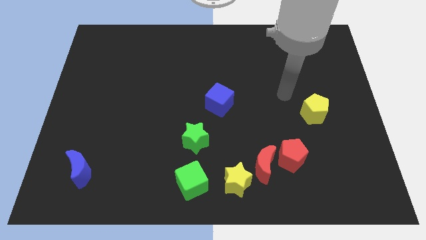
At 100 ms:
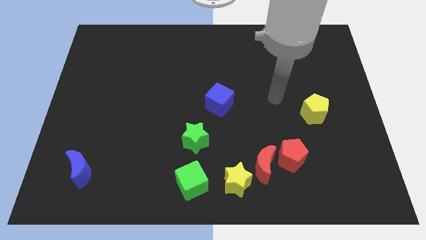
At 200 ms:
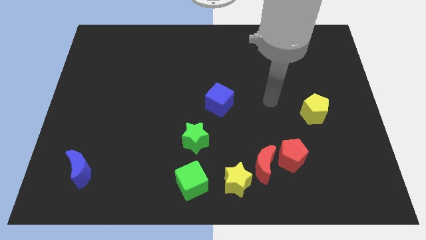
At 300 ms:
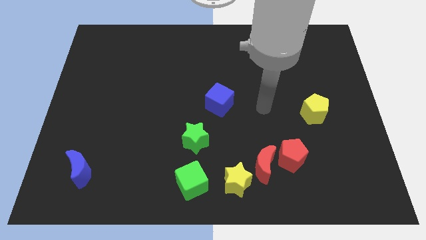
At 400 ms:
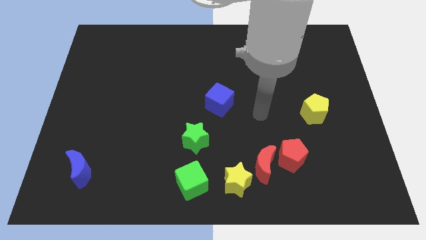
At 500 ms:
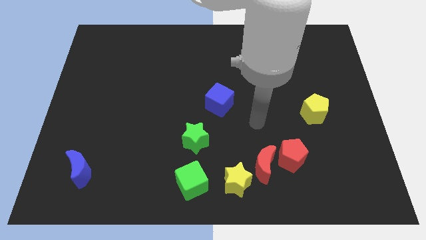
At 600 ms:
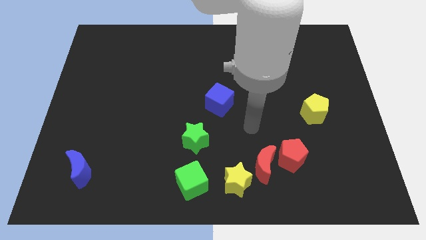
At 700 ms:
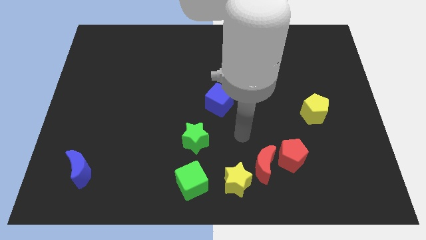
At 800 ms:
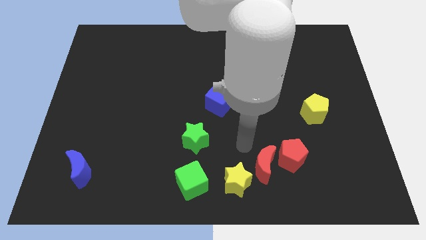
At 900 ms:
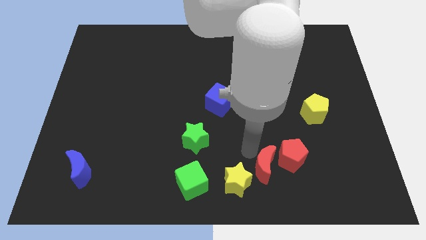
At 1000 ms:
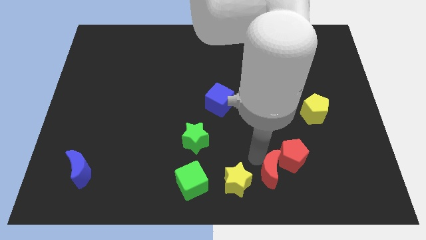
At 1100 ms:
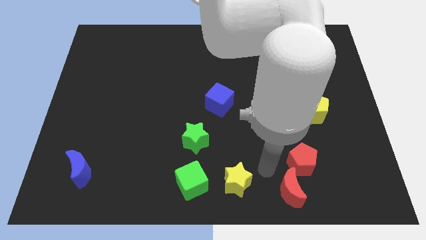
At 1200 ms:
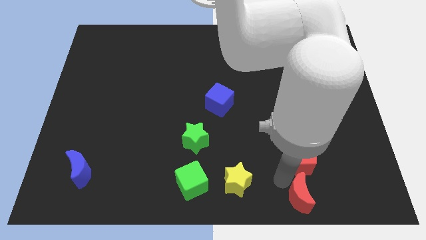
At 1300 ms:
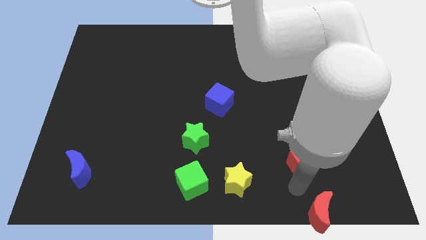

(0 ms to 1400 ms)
pull the red pentagon apart from the red moon

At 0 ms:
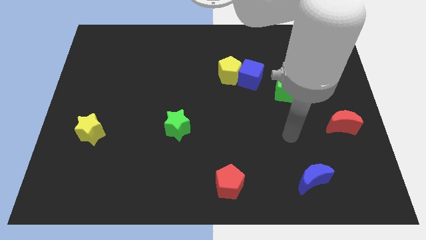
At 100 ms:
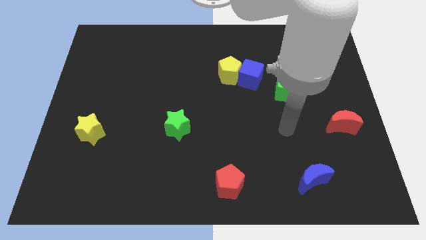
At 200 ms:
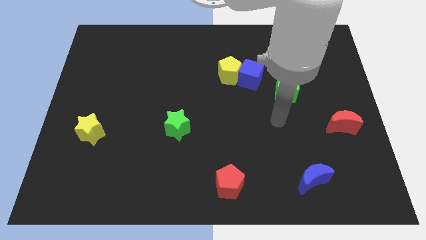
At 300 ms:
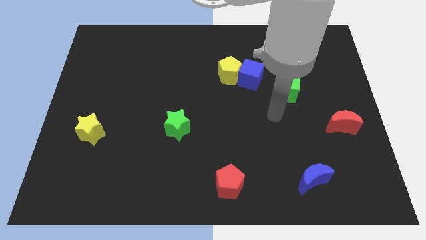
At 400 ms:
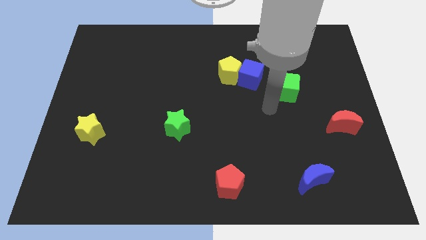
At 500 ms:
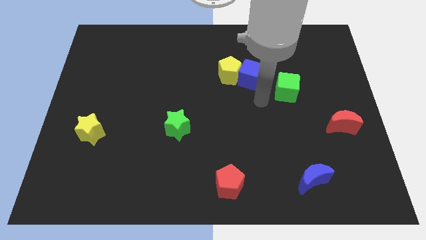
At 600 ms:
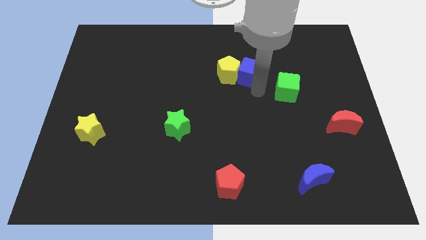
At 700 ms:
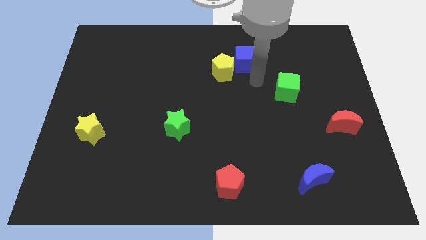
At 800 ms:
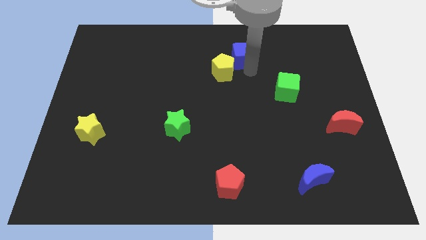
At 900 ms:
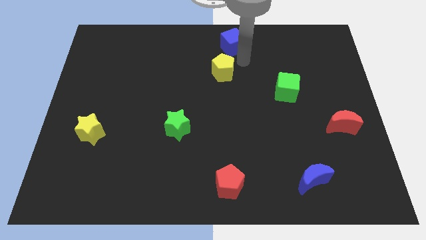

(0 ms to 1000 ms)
move the yellow pentagon away from the blue cube

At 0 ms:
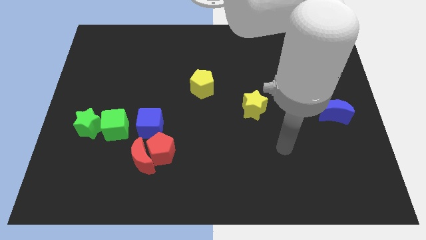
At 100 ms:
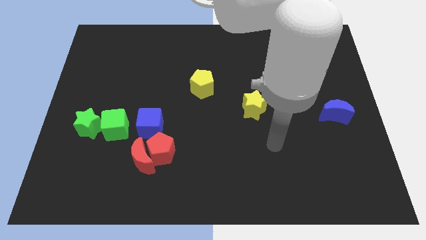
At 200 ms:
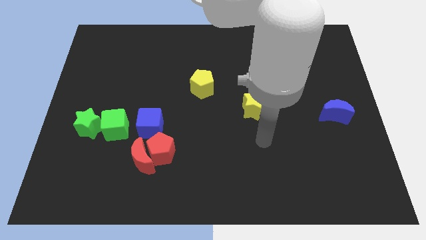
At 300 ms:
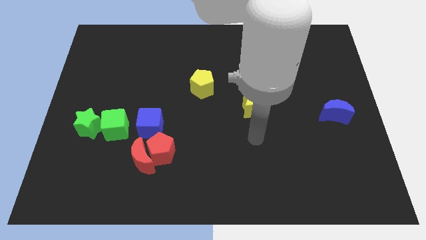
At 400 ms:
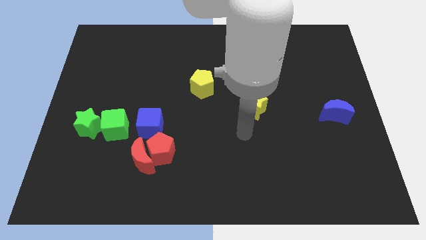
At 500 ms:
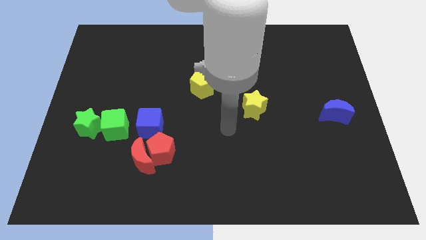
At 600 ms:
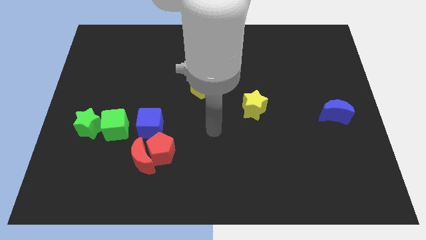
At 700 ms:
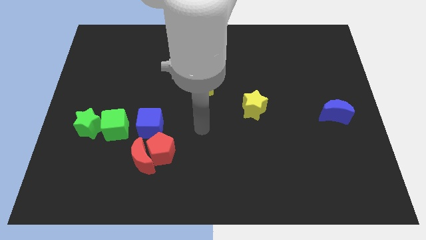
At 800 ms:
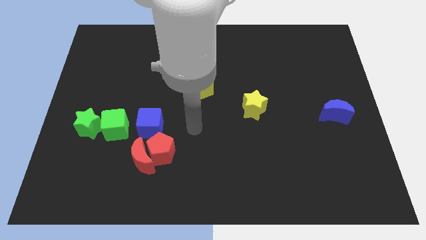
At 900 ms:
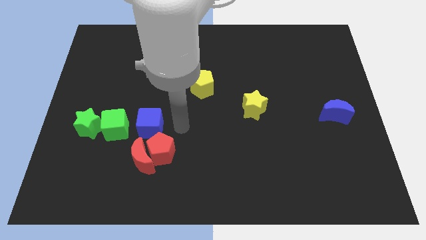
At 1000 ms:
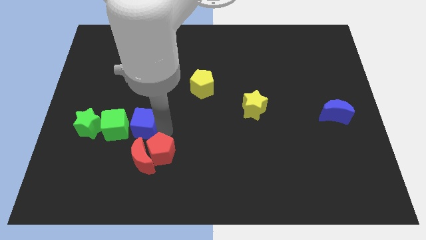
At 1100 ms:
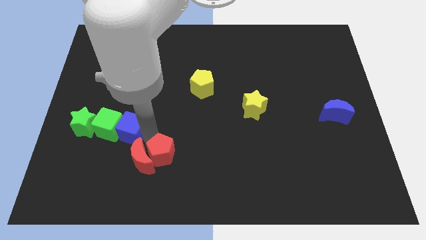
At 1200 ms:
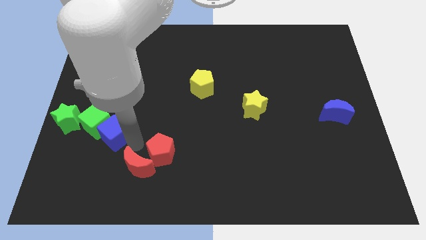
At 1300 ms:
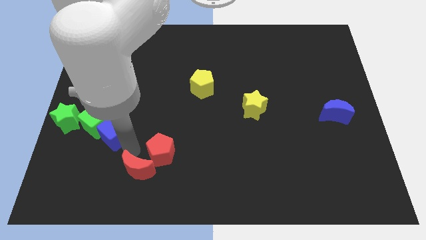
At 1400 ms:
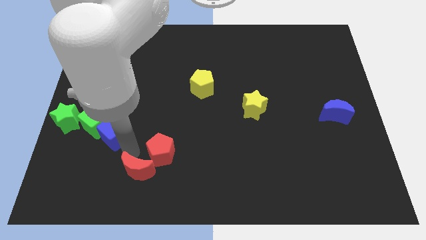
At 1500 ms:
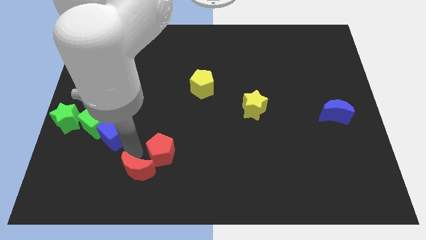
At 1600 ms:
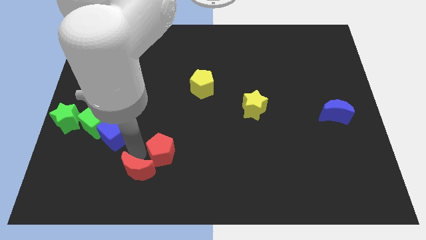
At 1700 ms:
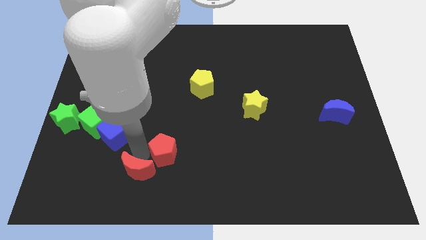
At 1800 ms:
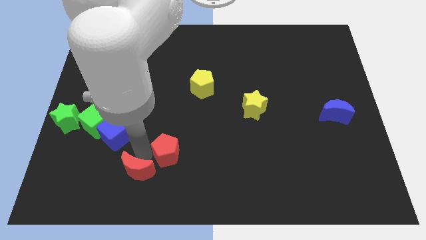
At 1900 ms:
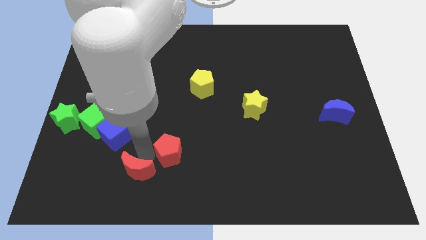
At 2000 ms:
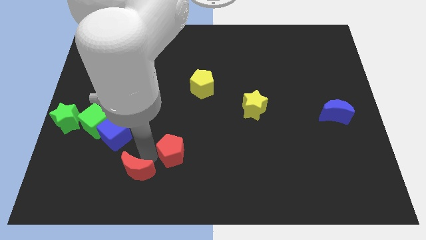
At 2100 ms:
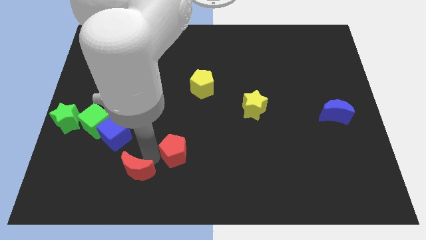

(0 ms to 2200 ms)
move the red pentagon away from the red moon and blue cube

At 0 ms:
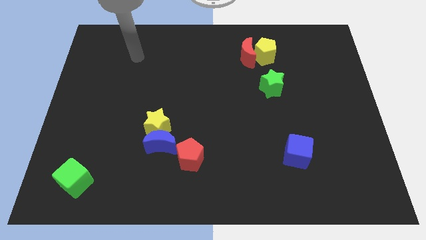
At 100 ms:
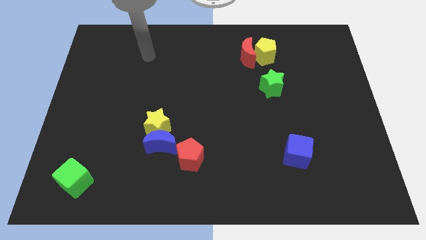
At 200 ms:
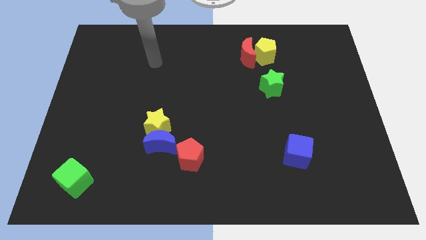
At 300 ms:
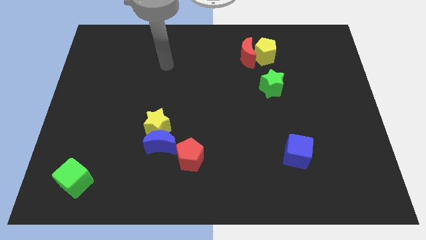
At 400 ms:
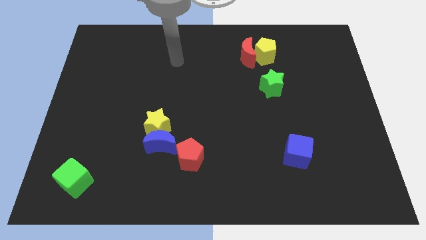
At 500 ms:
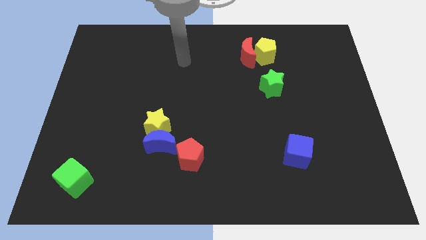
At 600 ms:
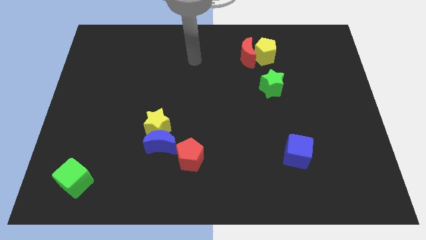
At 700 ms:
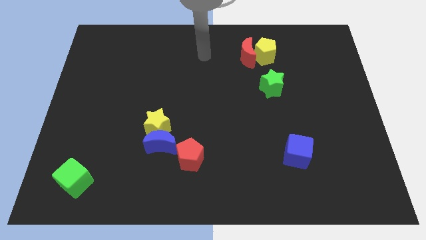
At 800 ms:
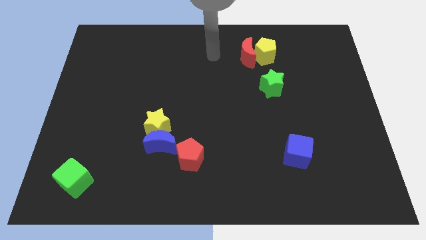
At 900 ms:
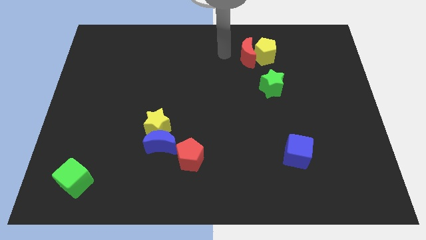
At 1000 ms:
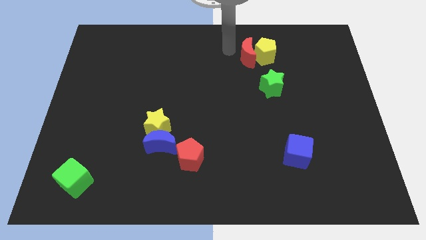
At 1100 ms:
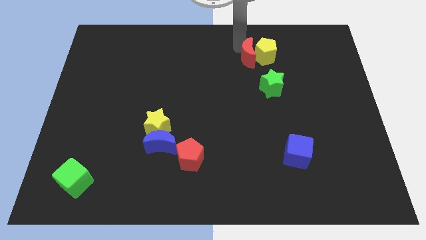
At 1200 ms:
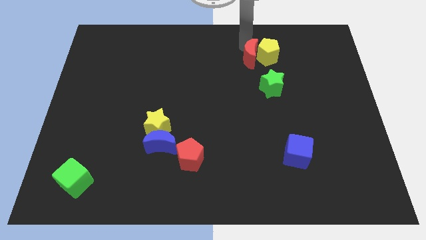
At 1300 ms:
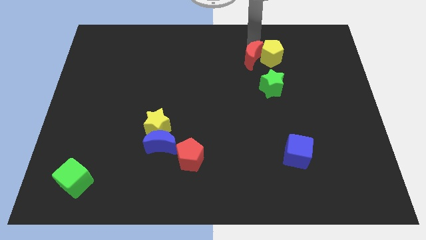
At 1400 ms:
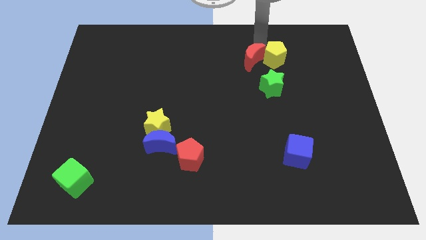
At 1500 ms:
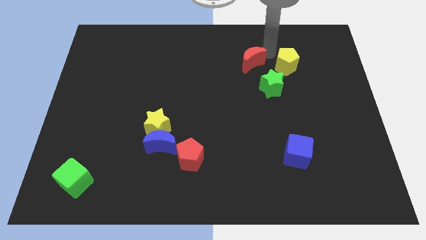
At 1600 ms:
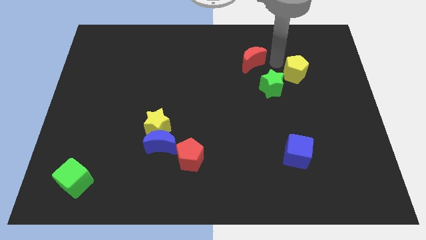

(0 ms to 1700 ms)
pull the red moon apart from the yellow pentagon

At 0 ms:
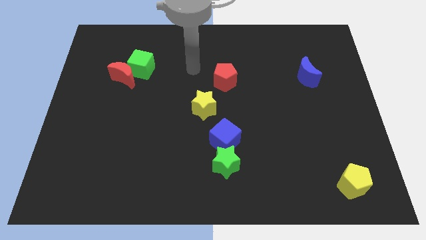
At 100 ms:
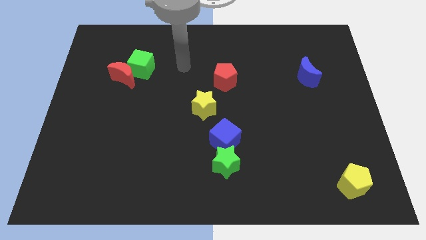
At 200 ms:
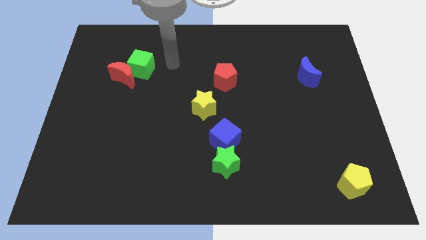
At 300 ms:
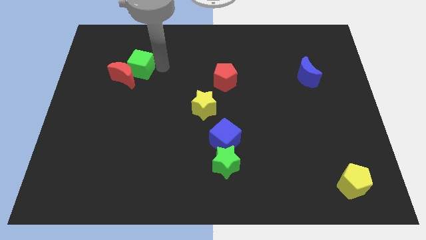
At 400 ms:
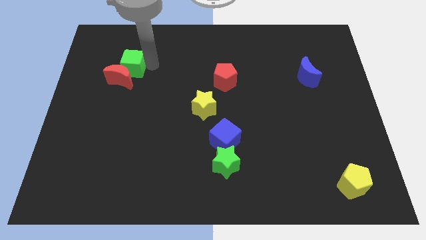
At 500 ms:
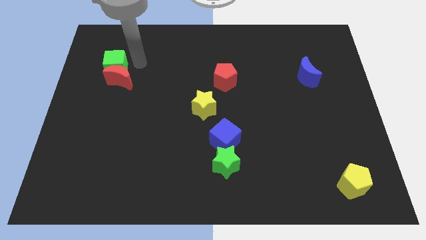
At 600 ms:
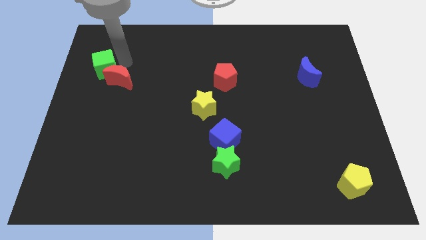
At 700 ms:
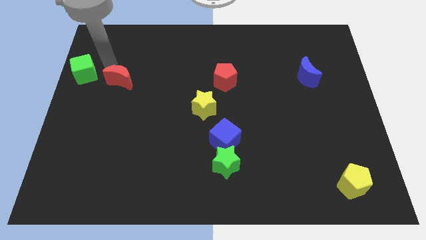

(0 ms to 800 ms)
pull the red moon apart from the green cube

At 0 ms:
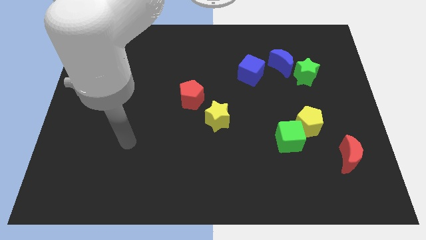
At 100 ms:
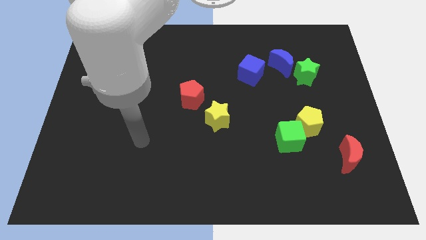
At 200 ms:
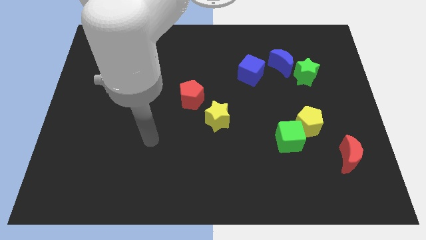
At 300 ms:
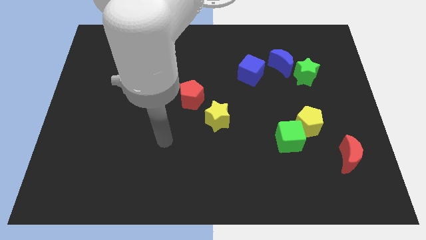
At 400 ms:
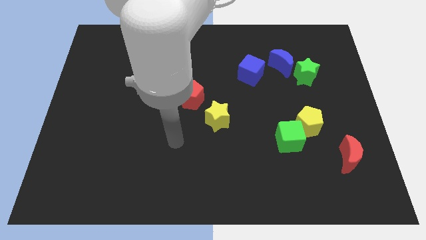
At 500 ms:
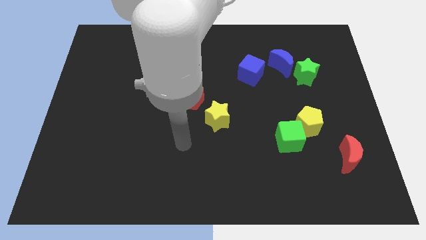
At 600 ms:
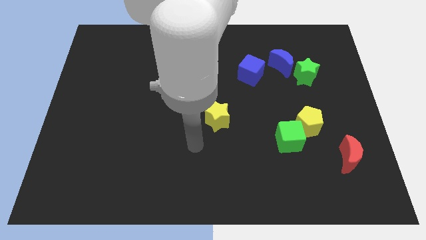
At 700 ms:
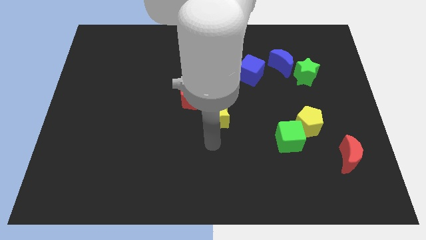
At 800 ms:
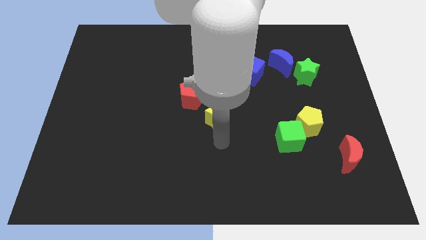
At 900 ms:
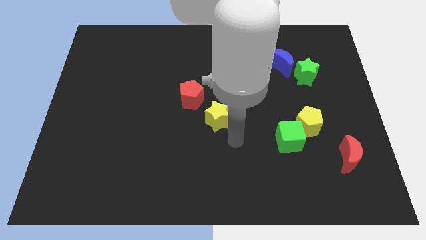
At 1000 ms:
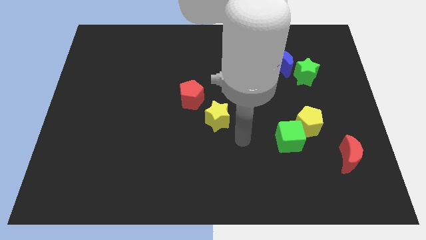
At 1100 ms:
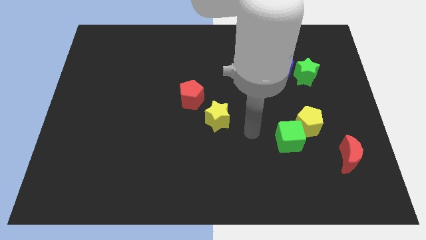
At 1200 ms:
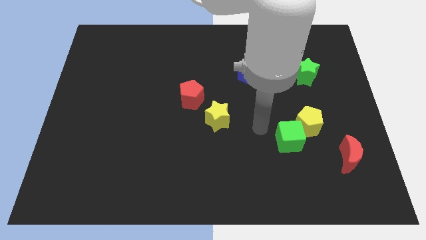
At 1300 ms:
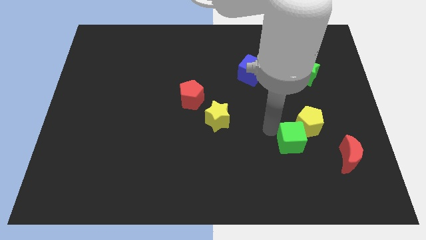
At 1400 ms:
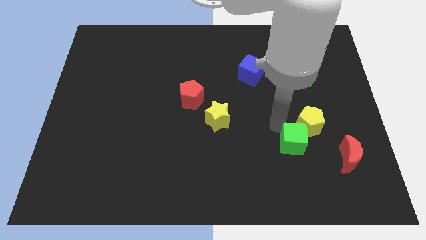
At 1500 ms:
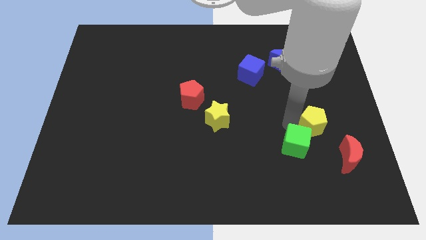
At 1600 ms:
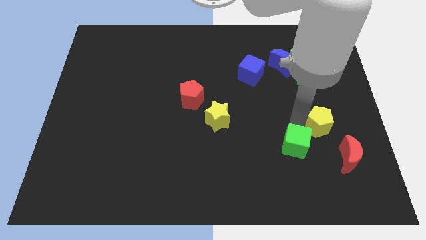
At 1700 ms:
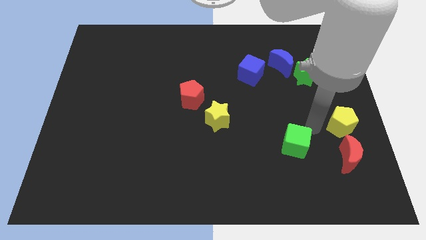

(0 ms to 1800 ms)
pull the green cube apart from the yellow pentagon

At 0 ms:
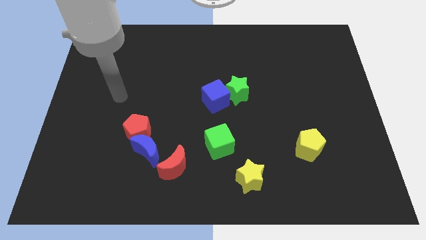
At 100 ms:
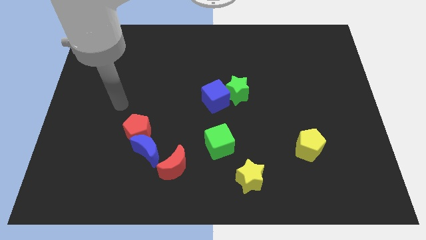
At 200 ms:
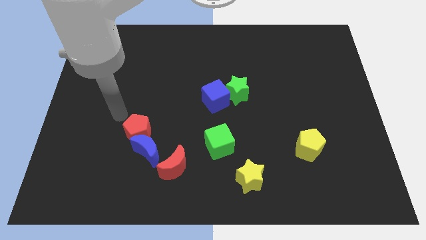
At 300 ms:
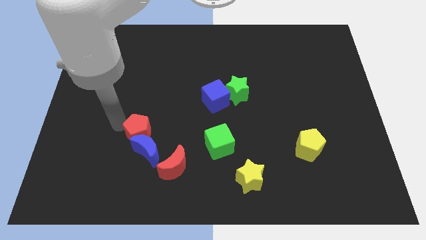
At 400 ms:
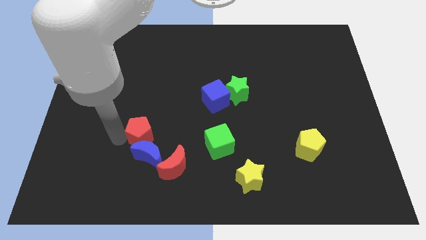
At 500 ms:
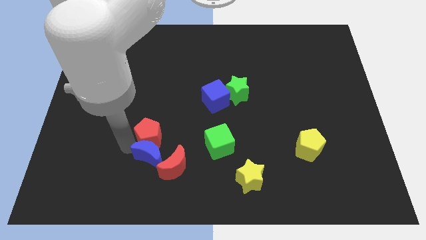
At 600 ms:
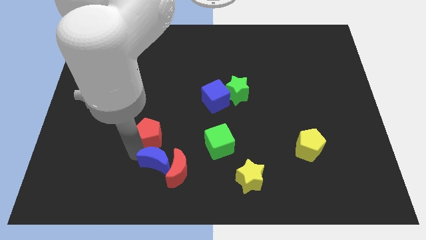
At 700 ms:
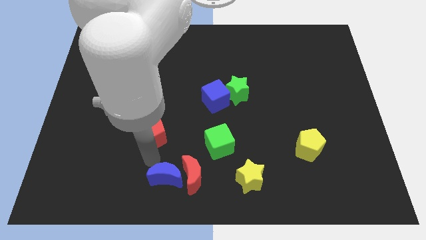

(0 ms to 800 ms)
pull the red pentagon apart from the blue moon
